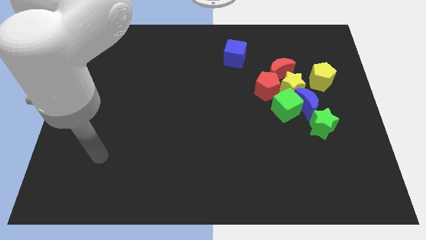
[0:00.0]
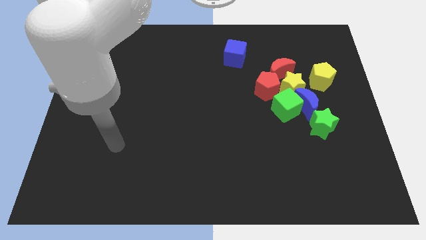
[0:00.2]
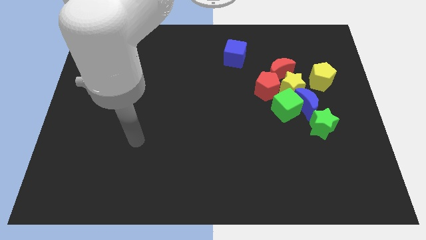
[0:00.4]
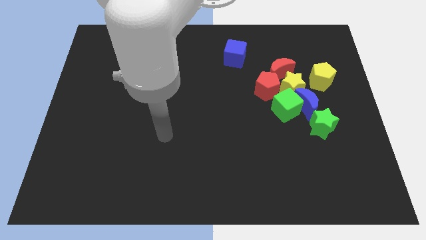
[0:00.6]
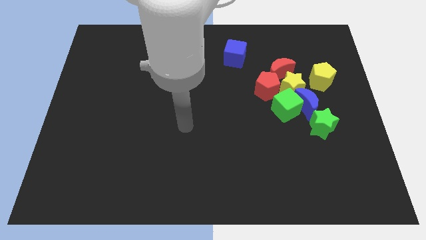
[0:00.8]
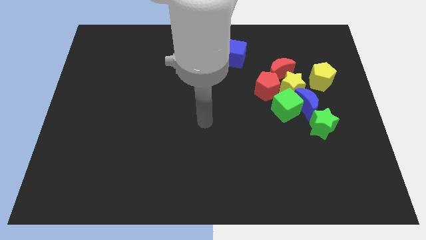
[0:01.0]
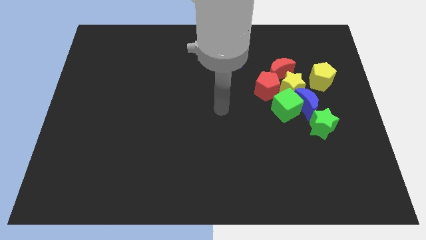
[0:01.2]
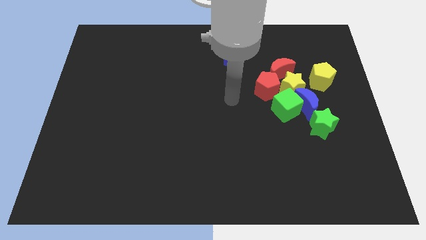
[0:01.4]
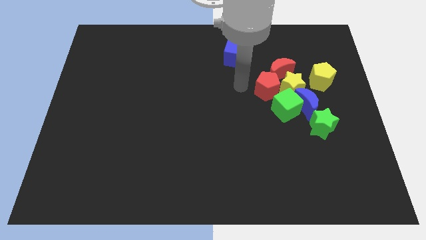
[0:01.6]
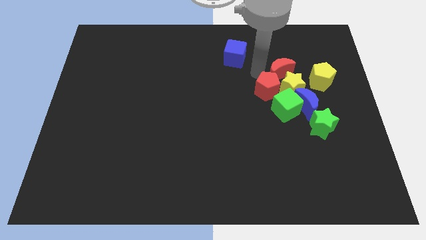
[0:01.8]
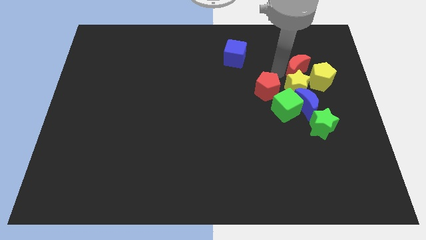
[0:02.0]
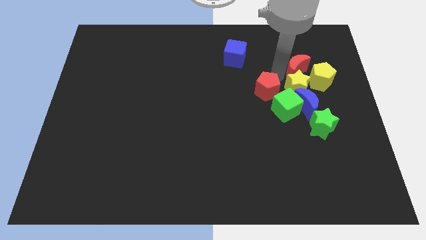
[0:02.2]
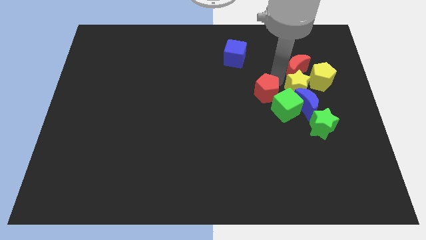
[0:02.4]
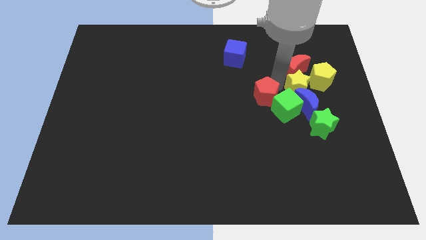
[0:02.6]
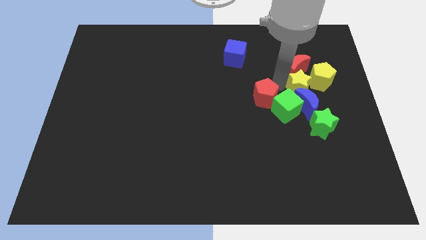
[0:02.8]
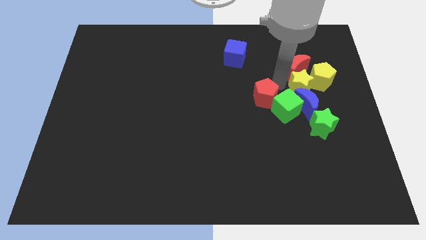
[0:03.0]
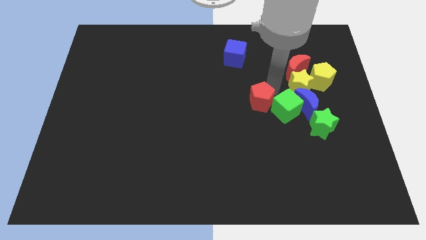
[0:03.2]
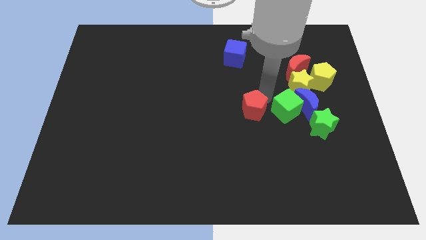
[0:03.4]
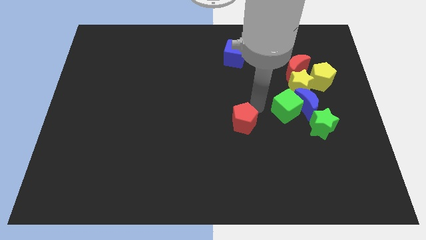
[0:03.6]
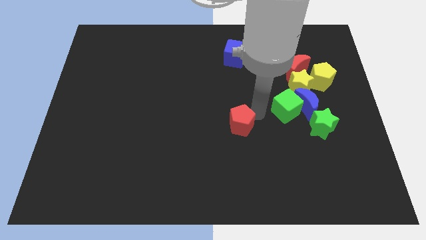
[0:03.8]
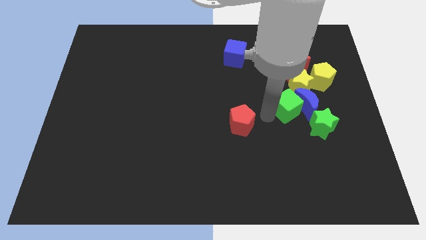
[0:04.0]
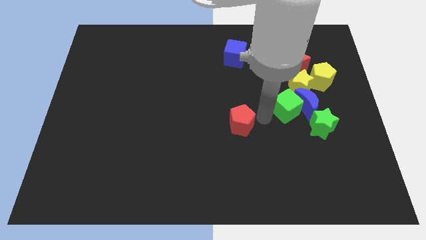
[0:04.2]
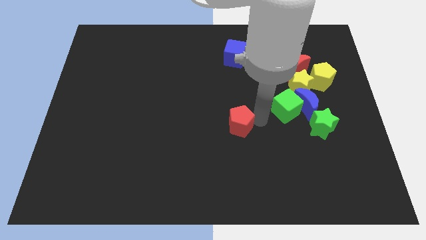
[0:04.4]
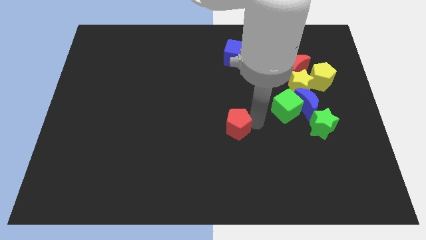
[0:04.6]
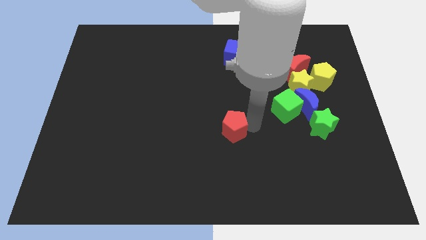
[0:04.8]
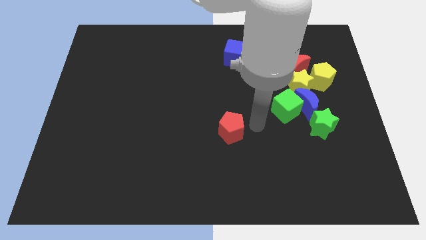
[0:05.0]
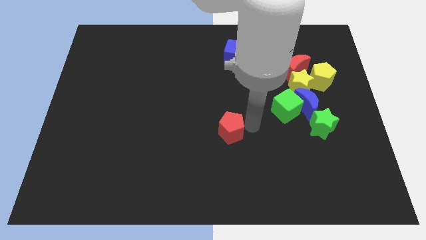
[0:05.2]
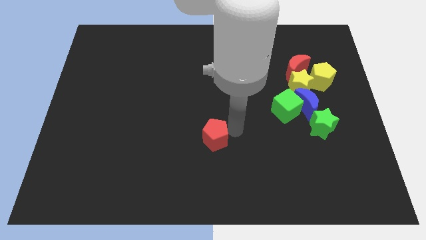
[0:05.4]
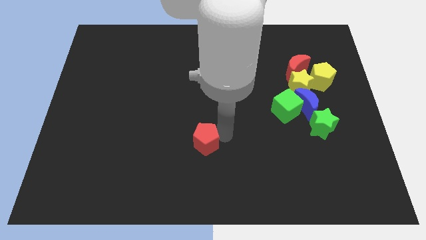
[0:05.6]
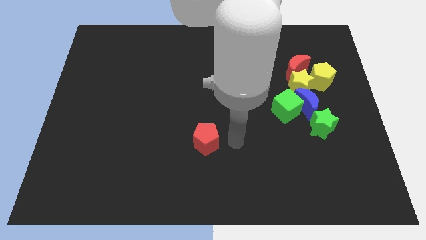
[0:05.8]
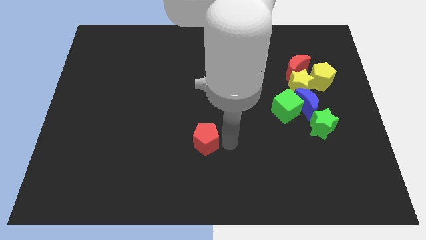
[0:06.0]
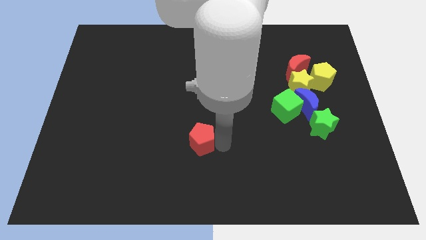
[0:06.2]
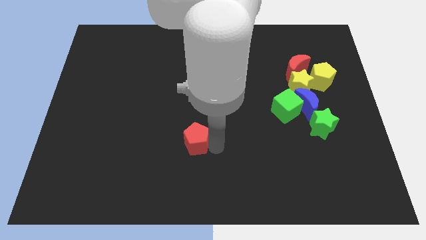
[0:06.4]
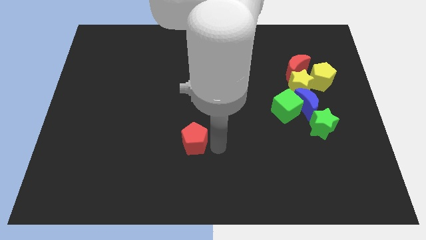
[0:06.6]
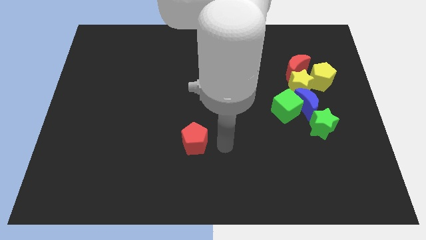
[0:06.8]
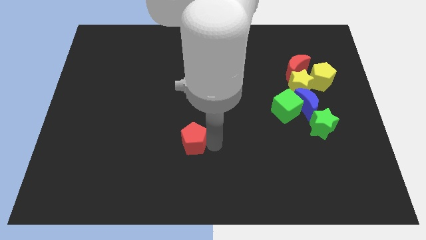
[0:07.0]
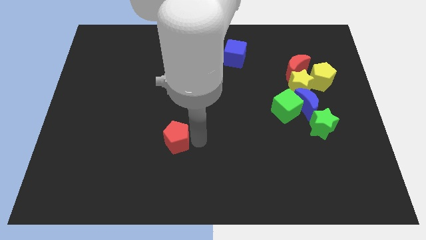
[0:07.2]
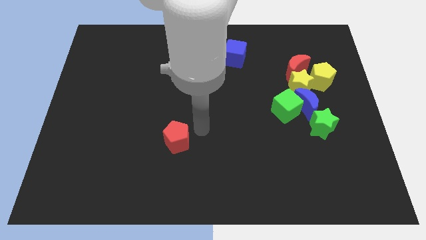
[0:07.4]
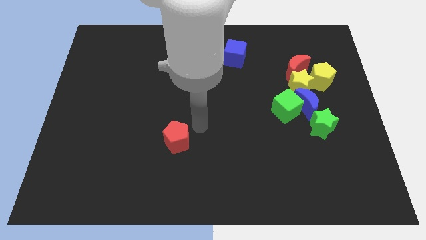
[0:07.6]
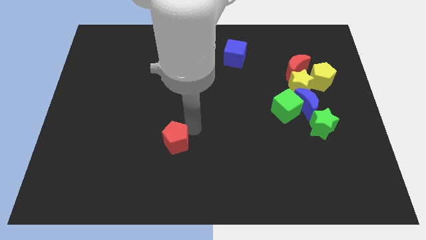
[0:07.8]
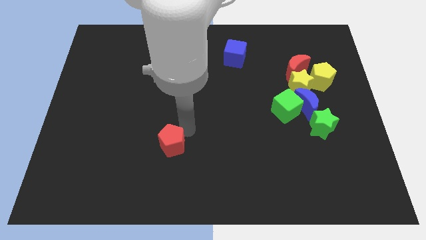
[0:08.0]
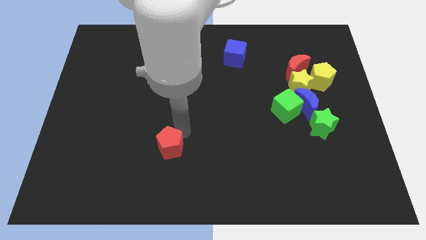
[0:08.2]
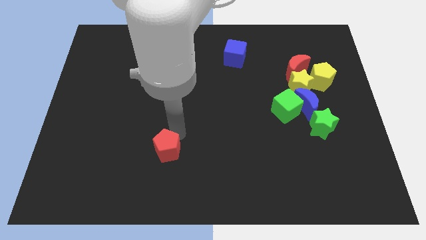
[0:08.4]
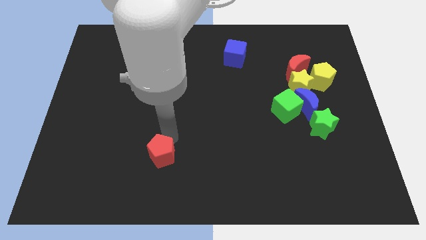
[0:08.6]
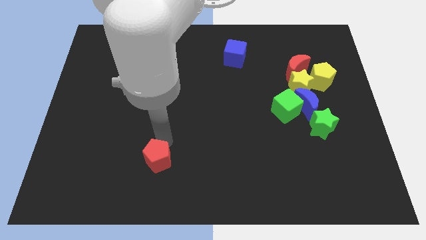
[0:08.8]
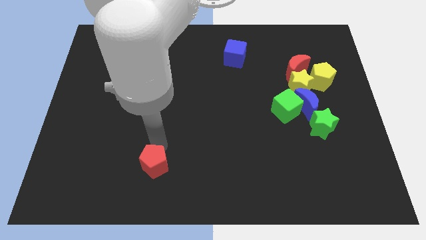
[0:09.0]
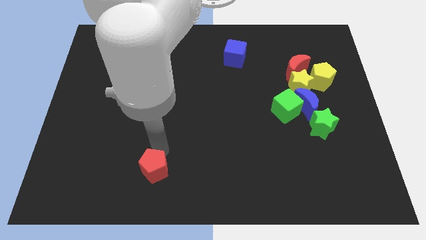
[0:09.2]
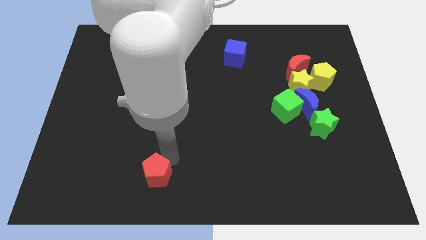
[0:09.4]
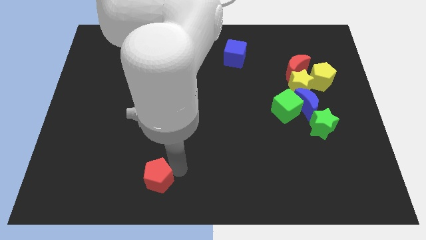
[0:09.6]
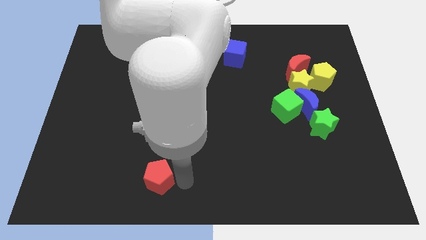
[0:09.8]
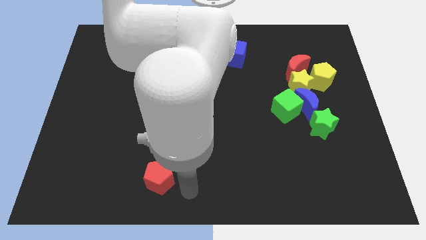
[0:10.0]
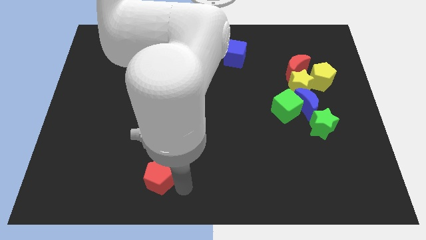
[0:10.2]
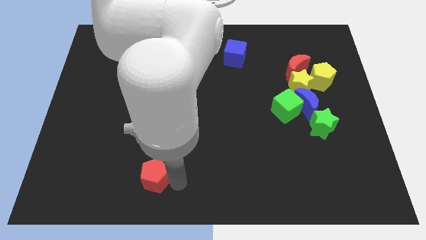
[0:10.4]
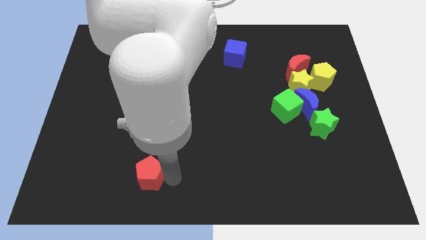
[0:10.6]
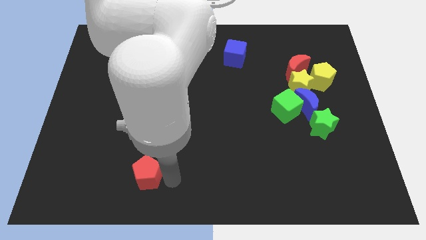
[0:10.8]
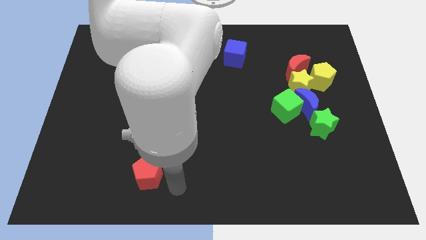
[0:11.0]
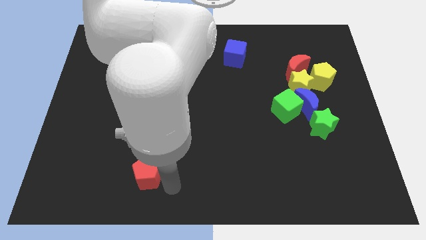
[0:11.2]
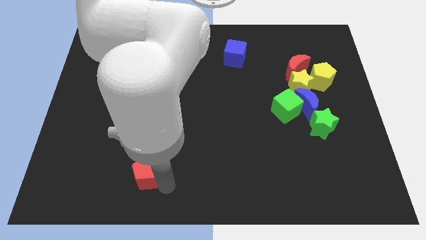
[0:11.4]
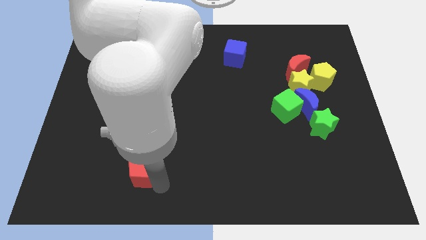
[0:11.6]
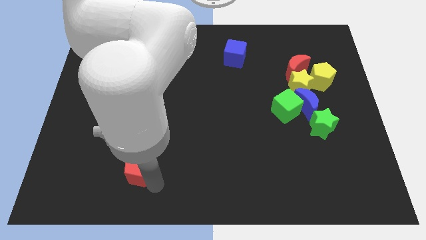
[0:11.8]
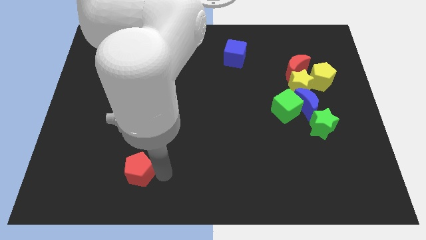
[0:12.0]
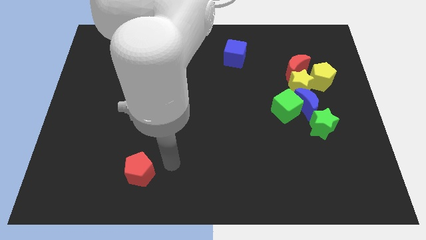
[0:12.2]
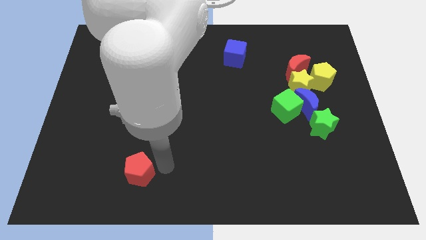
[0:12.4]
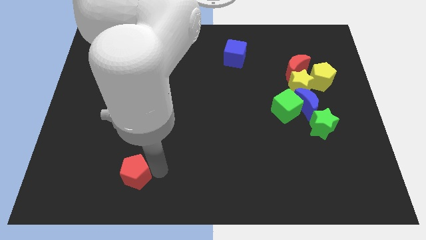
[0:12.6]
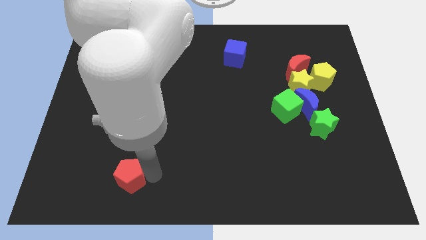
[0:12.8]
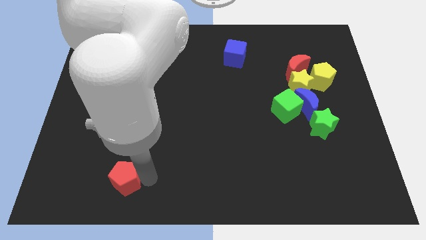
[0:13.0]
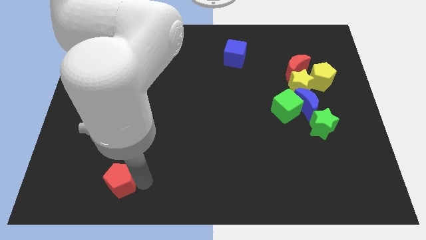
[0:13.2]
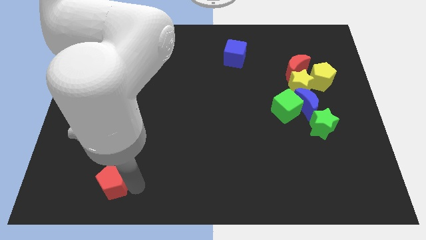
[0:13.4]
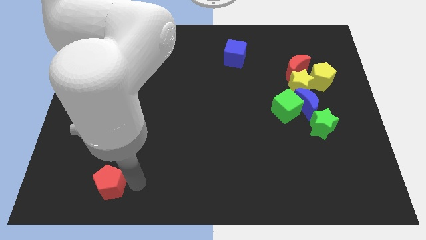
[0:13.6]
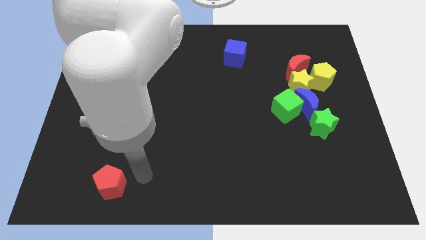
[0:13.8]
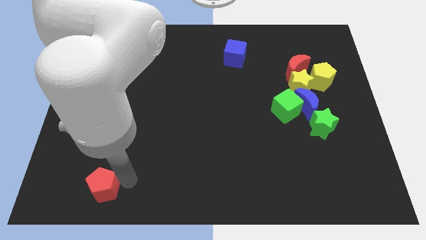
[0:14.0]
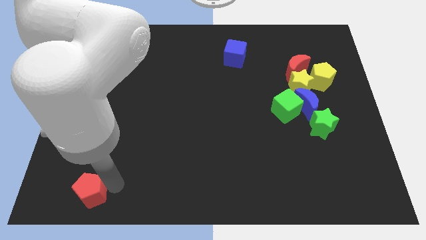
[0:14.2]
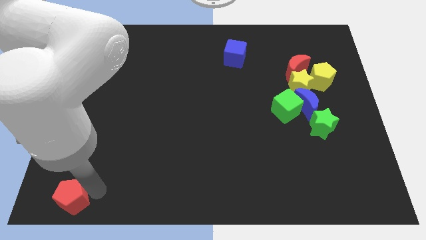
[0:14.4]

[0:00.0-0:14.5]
slide the red pentagon to the bottom left of the board
